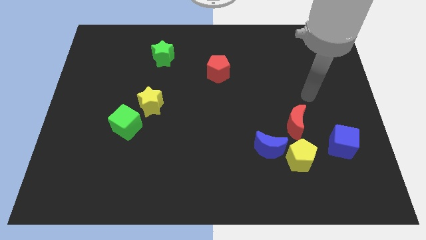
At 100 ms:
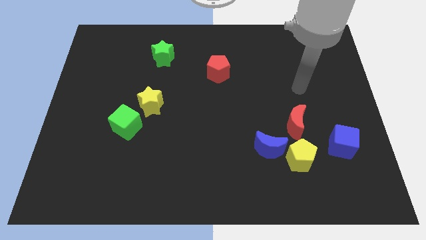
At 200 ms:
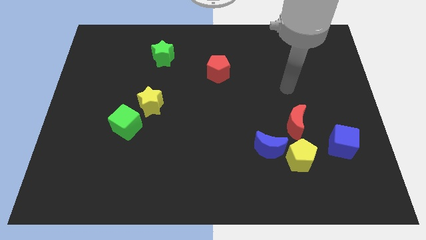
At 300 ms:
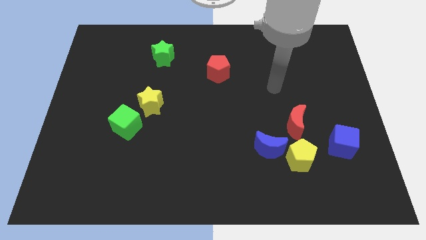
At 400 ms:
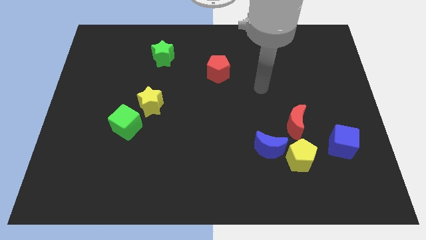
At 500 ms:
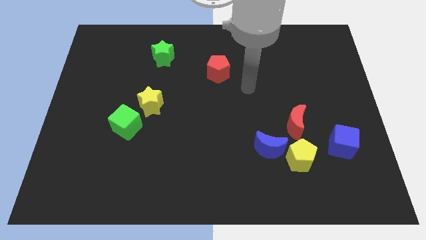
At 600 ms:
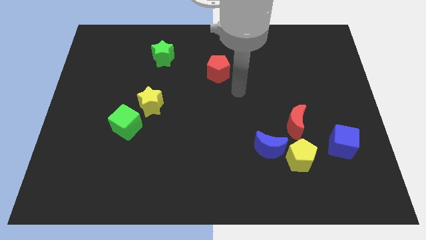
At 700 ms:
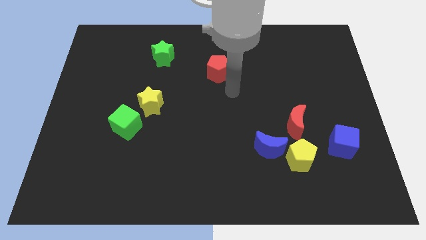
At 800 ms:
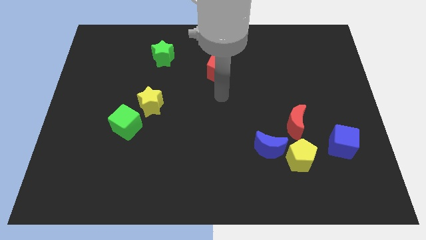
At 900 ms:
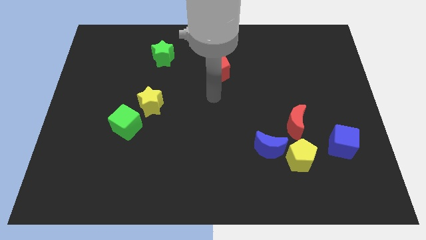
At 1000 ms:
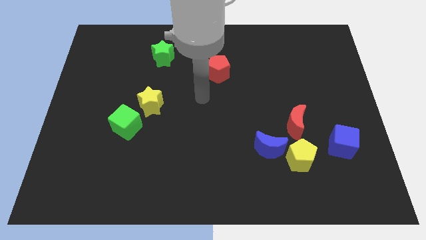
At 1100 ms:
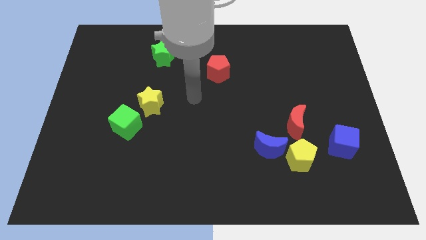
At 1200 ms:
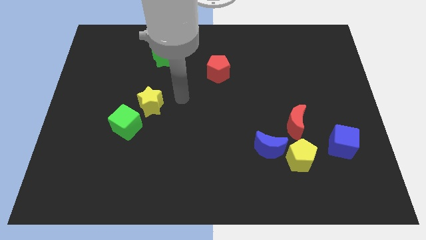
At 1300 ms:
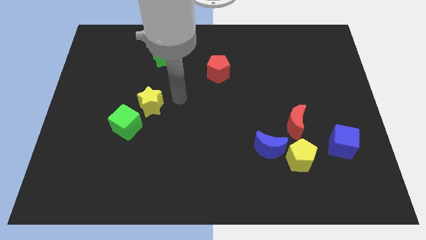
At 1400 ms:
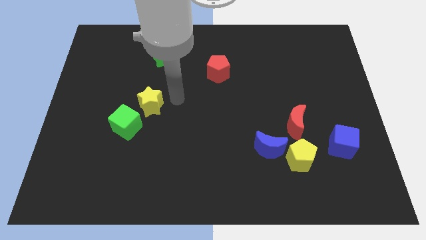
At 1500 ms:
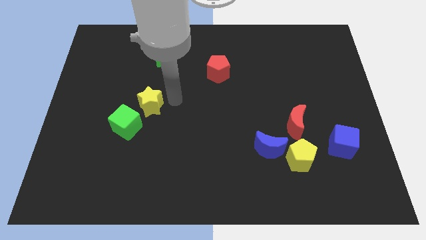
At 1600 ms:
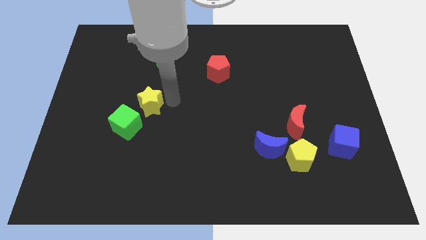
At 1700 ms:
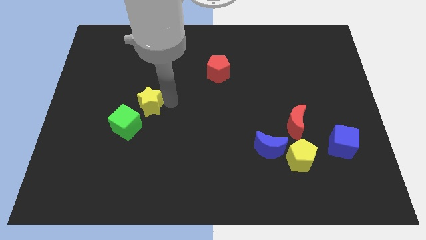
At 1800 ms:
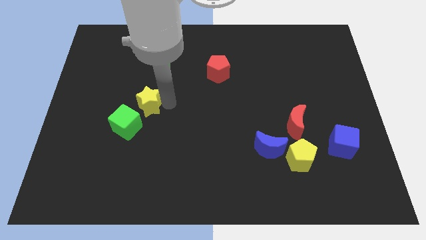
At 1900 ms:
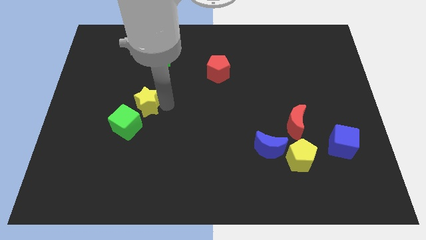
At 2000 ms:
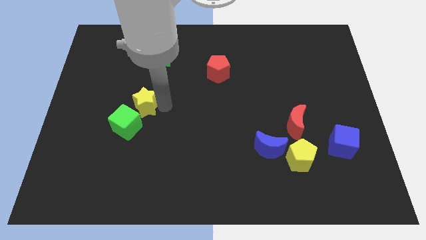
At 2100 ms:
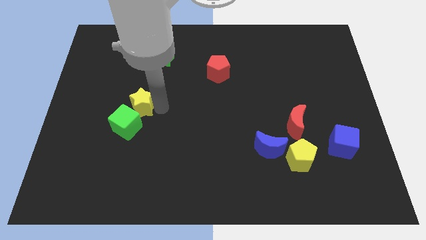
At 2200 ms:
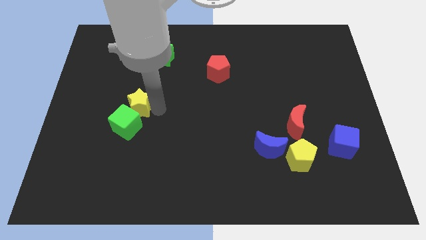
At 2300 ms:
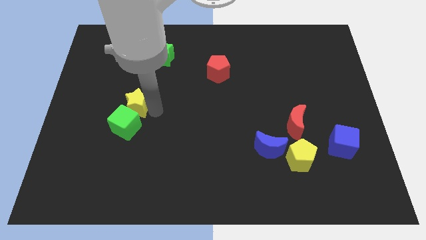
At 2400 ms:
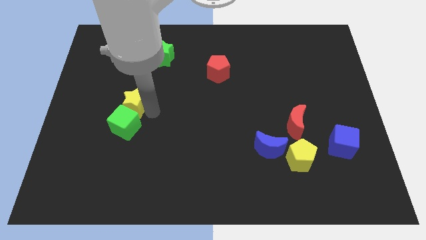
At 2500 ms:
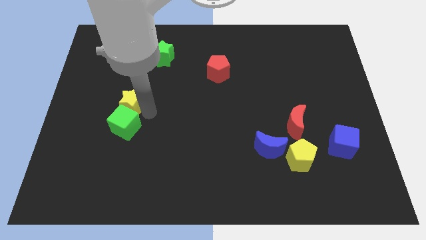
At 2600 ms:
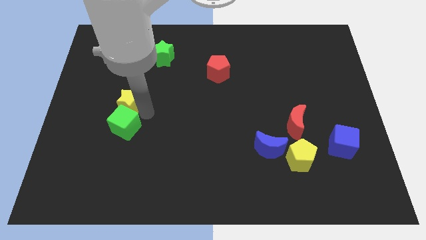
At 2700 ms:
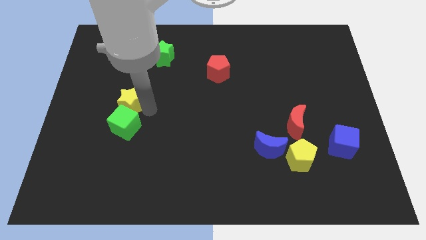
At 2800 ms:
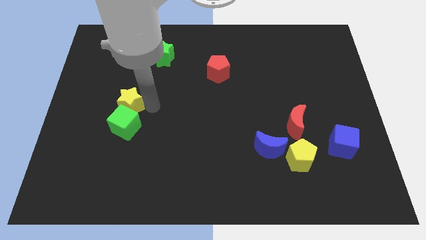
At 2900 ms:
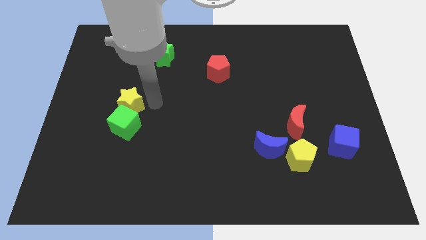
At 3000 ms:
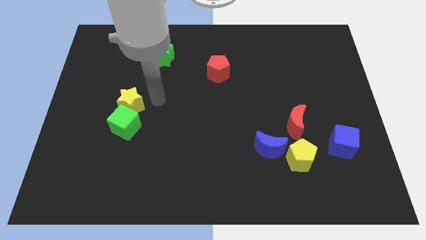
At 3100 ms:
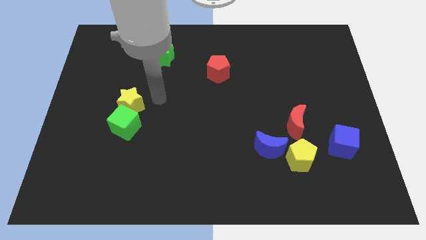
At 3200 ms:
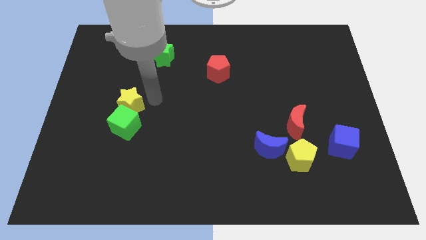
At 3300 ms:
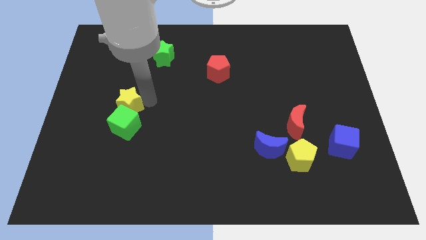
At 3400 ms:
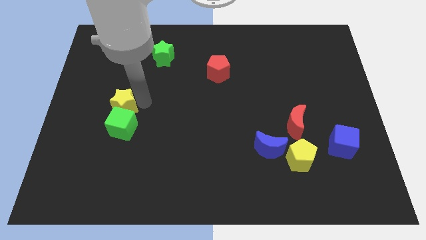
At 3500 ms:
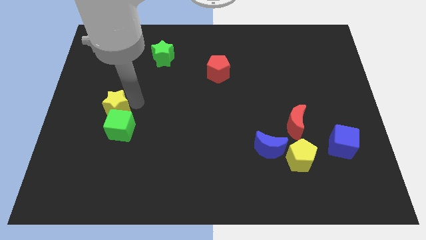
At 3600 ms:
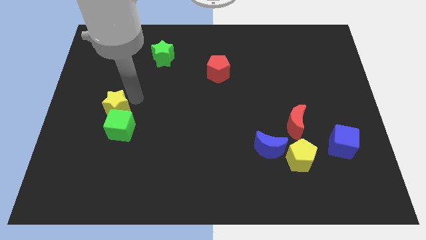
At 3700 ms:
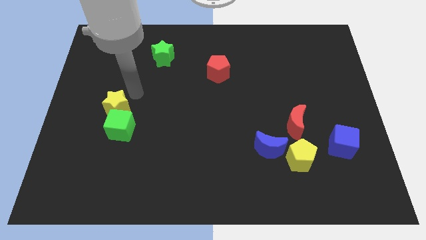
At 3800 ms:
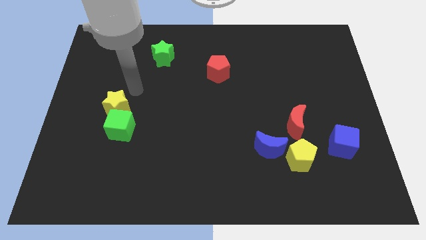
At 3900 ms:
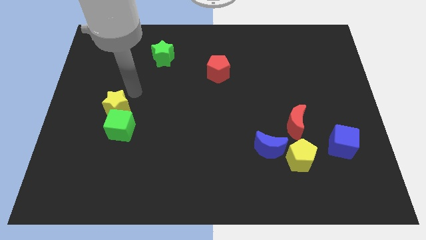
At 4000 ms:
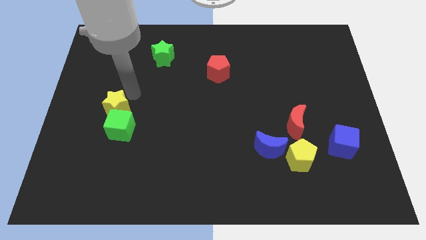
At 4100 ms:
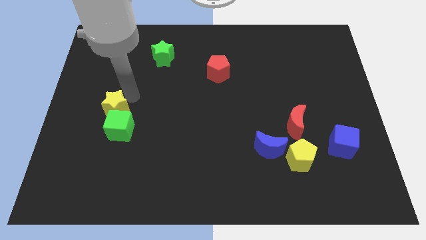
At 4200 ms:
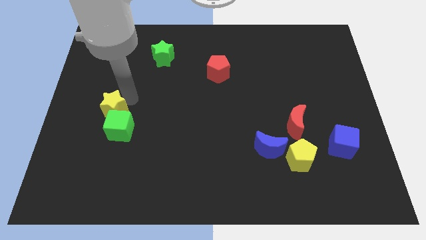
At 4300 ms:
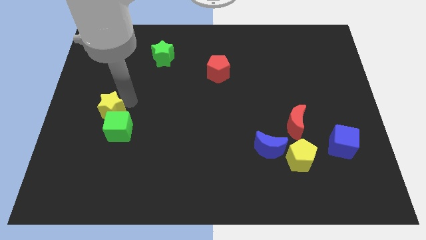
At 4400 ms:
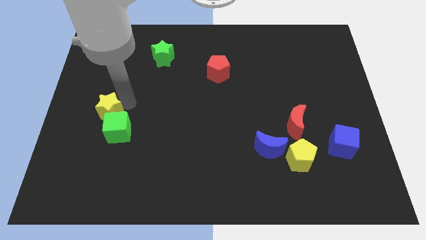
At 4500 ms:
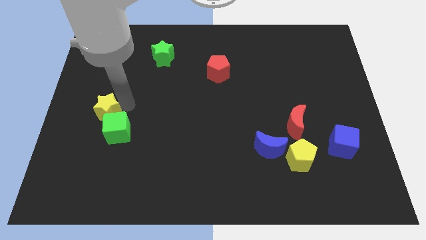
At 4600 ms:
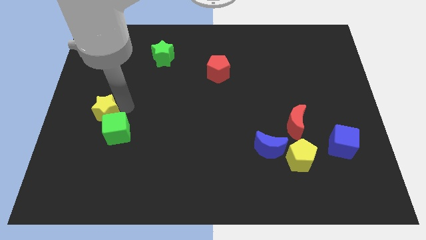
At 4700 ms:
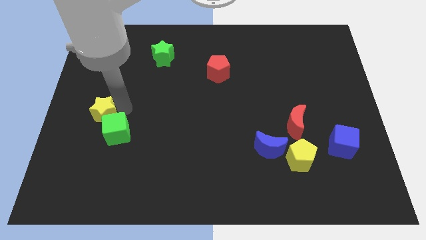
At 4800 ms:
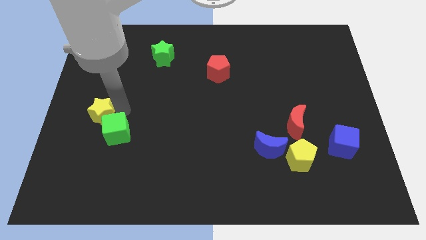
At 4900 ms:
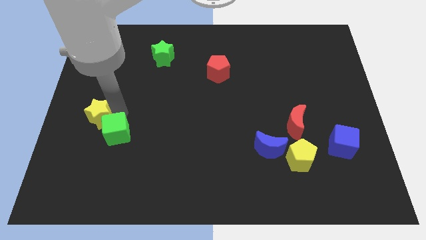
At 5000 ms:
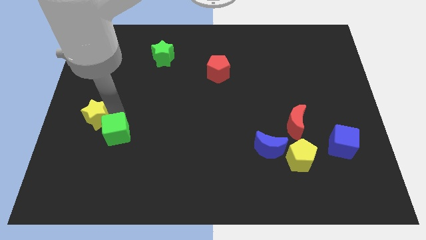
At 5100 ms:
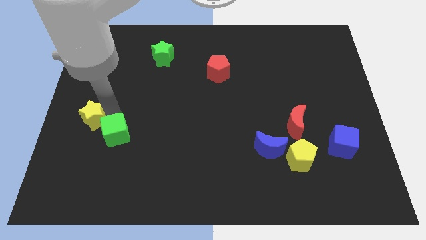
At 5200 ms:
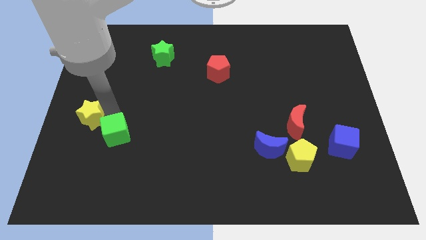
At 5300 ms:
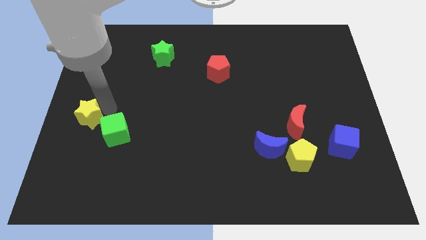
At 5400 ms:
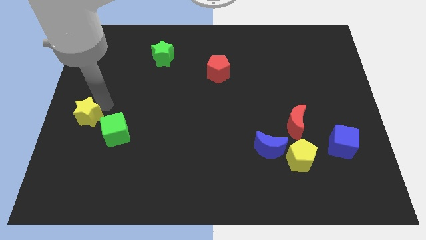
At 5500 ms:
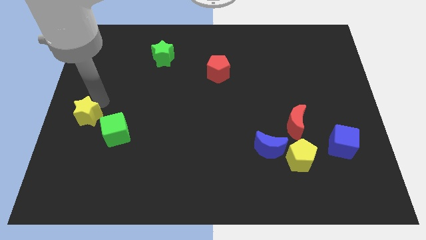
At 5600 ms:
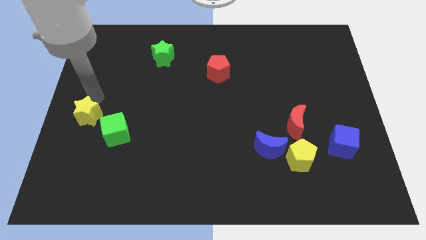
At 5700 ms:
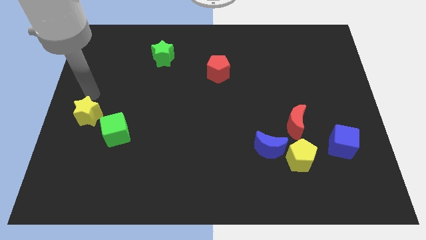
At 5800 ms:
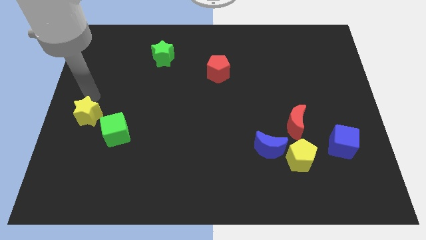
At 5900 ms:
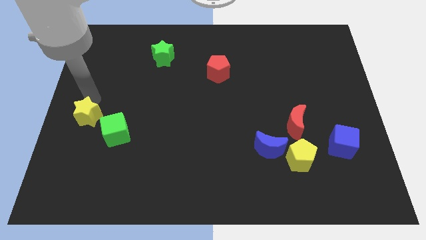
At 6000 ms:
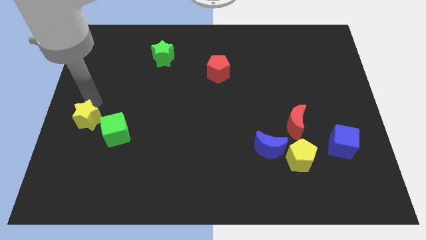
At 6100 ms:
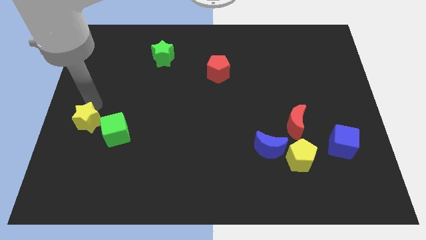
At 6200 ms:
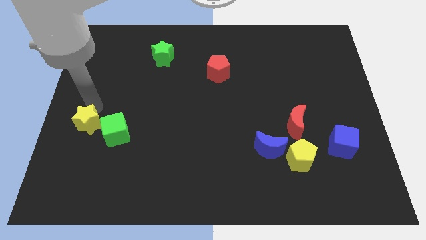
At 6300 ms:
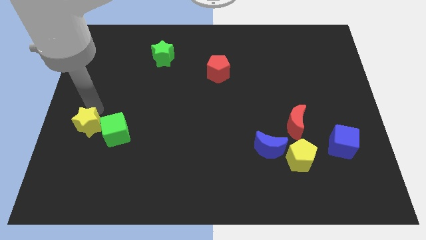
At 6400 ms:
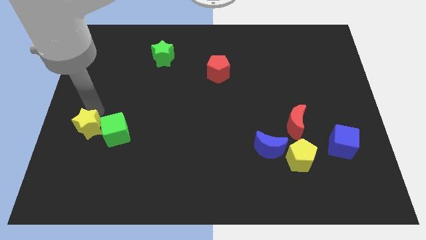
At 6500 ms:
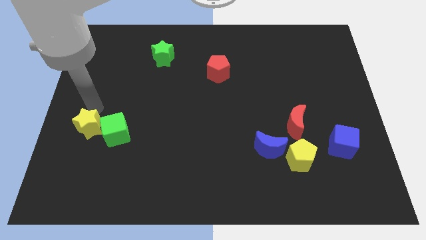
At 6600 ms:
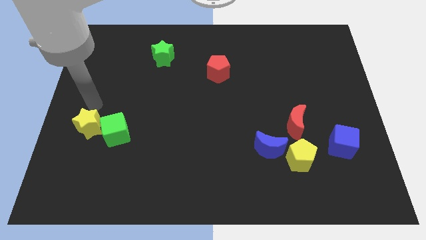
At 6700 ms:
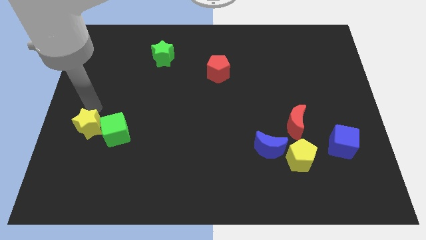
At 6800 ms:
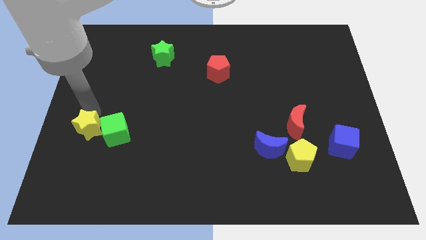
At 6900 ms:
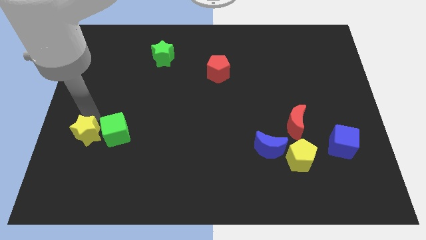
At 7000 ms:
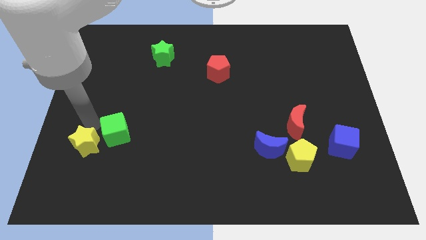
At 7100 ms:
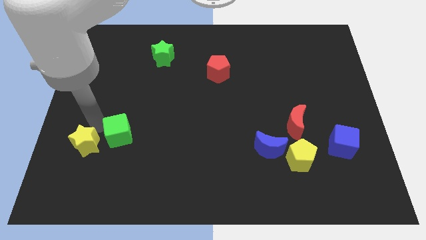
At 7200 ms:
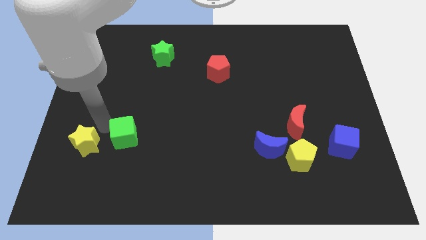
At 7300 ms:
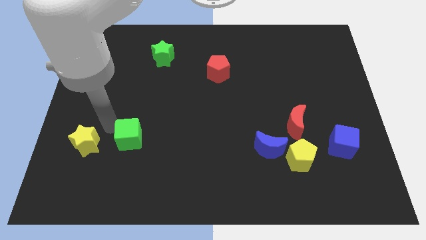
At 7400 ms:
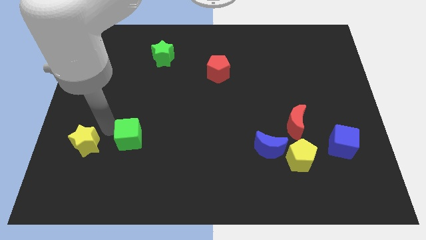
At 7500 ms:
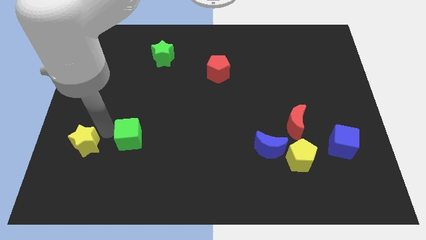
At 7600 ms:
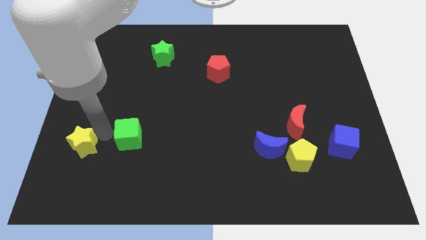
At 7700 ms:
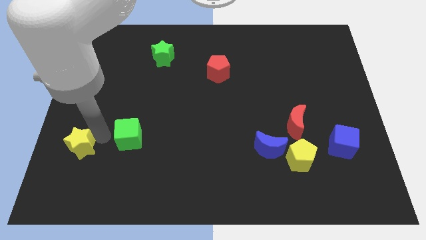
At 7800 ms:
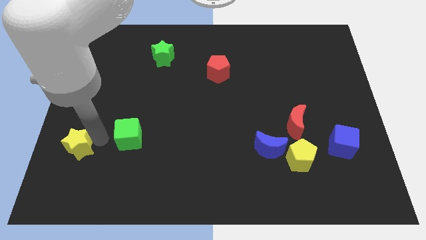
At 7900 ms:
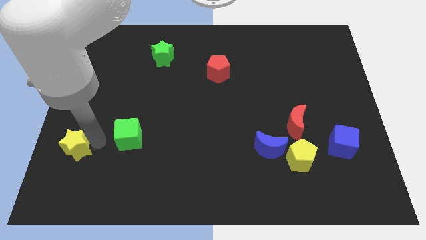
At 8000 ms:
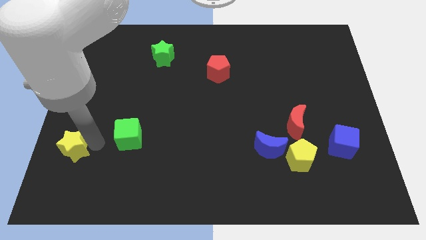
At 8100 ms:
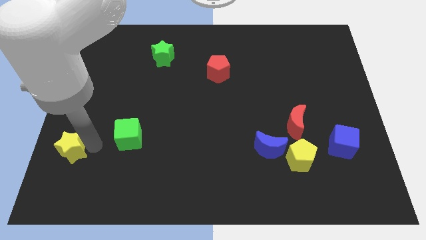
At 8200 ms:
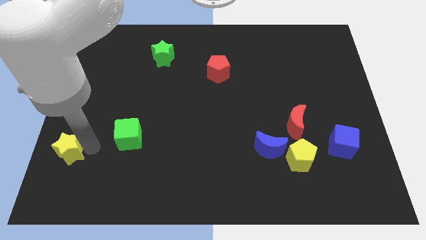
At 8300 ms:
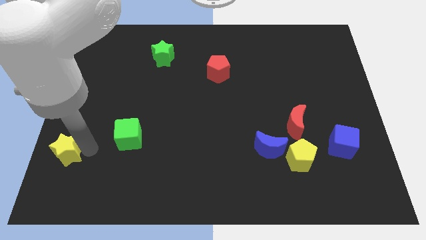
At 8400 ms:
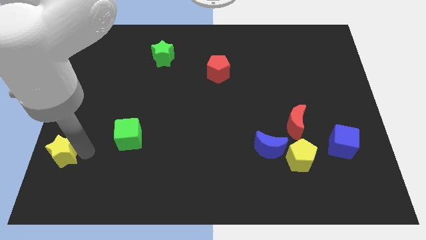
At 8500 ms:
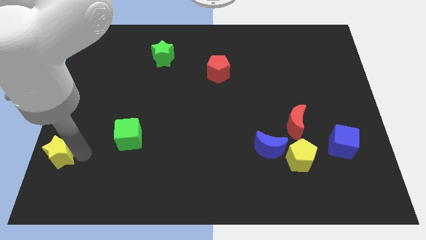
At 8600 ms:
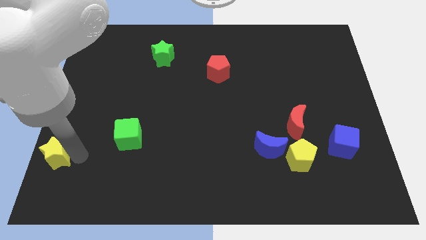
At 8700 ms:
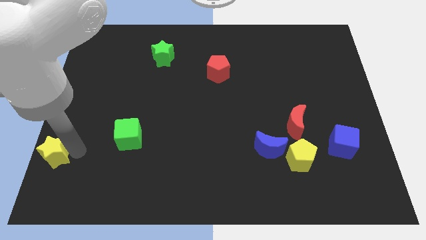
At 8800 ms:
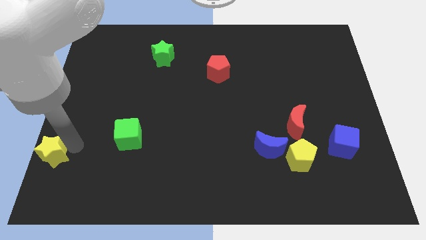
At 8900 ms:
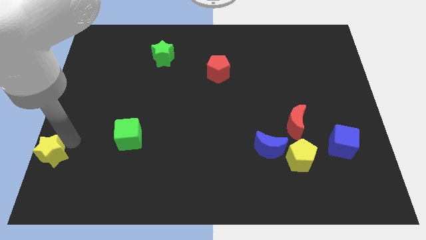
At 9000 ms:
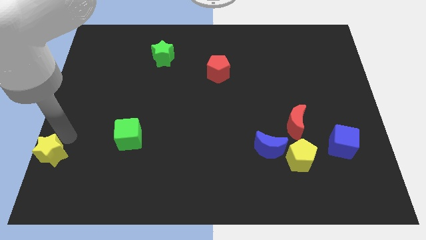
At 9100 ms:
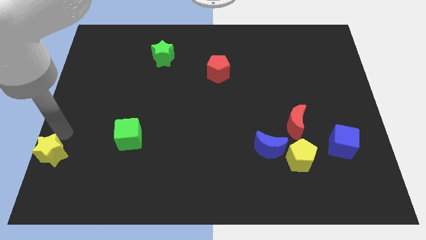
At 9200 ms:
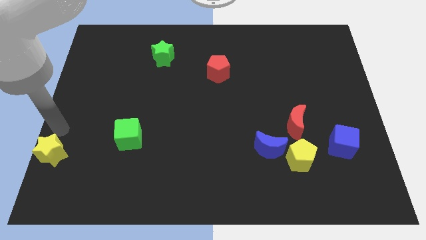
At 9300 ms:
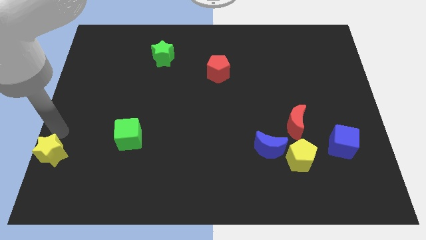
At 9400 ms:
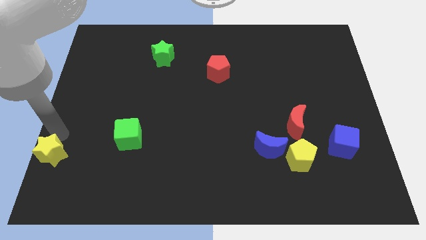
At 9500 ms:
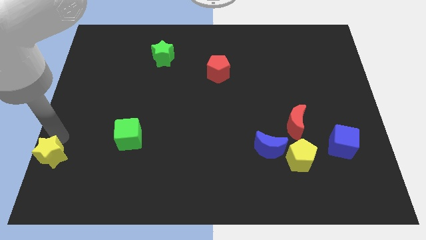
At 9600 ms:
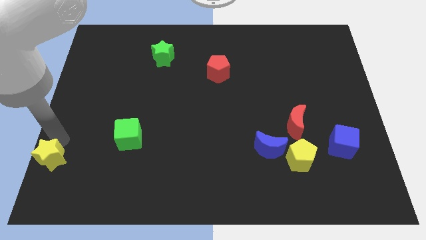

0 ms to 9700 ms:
slide the yellow star to the bottom left
